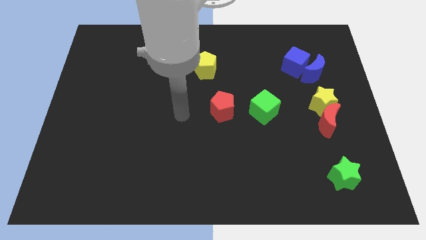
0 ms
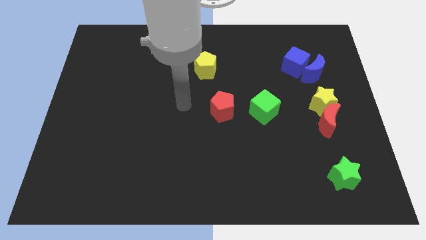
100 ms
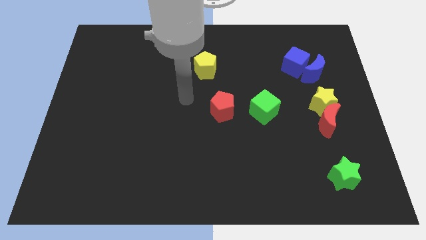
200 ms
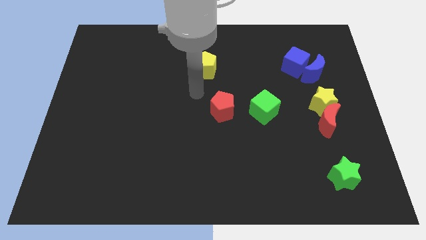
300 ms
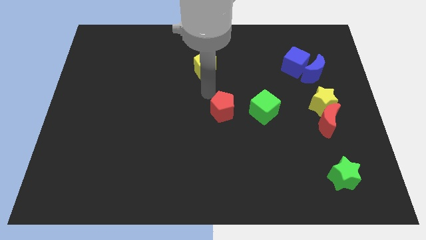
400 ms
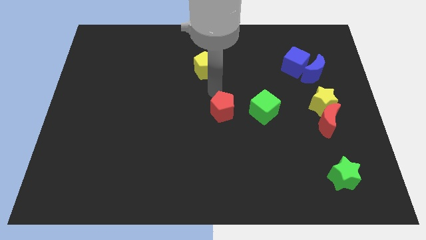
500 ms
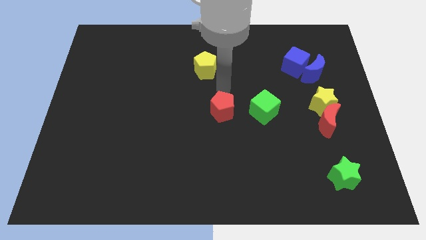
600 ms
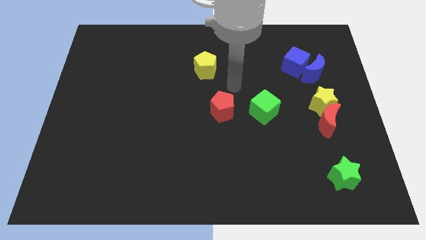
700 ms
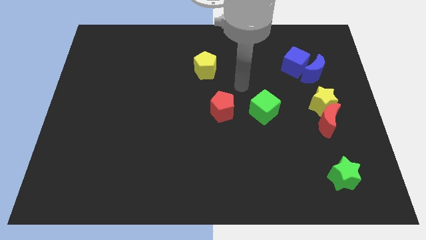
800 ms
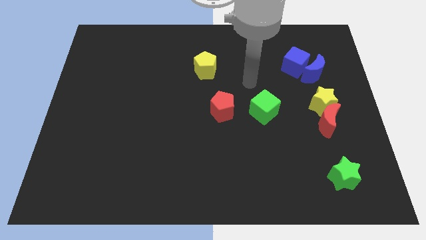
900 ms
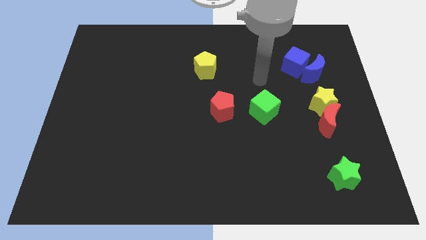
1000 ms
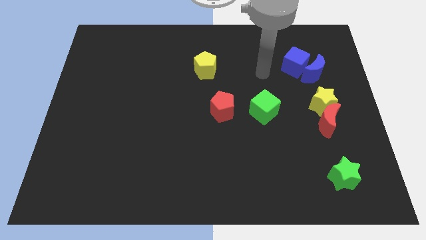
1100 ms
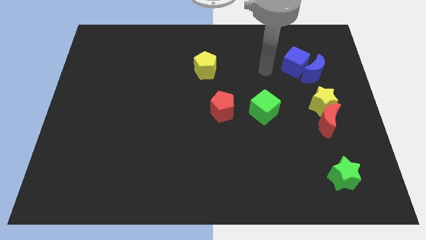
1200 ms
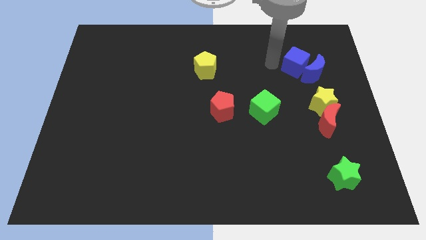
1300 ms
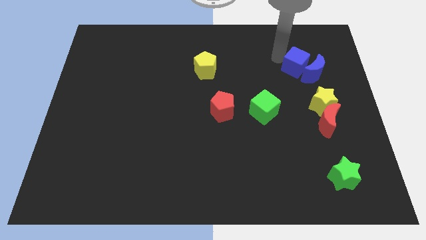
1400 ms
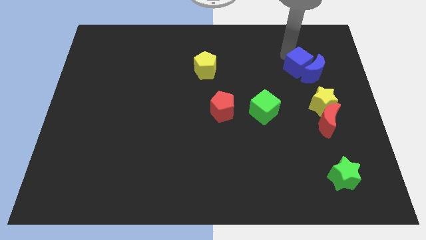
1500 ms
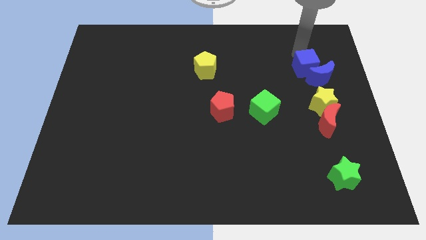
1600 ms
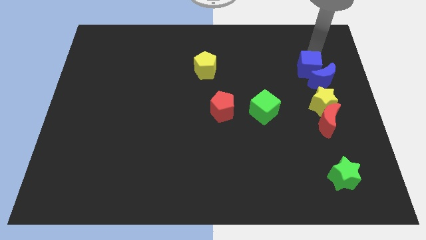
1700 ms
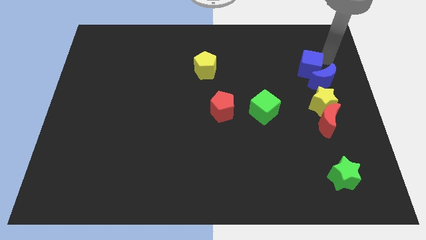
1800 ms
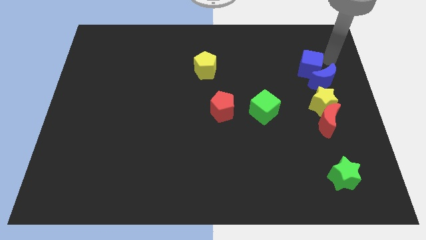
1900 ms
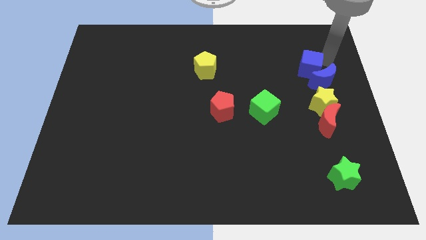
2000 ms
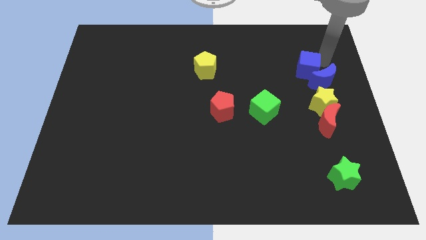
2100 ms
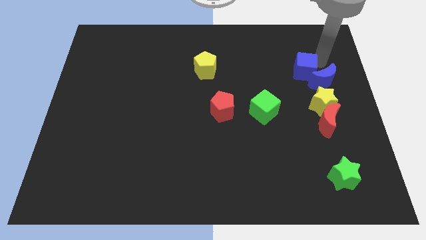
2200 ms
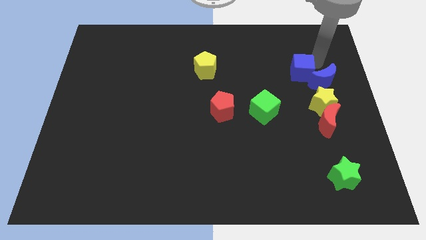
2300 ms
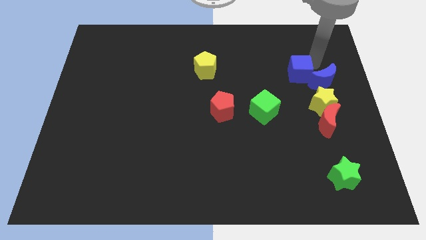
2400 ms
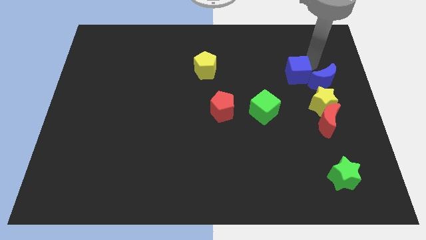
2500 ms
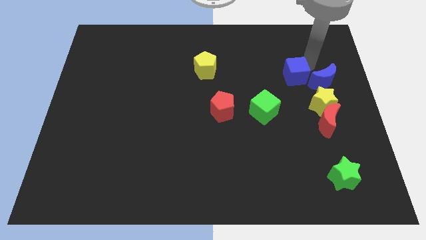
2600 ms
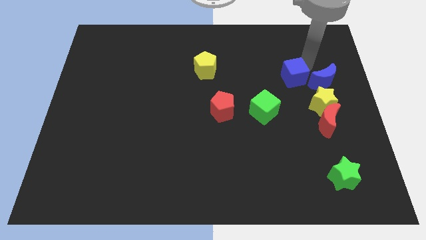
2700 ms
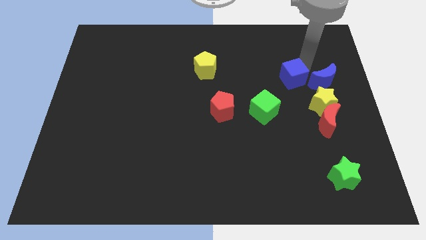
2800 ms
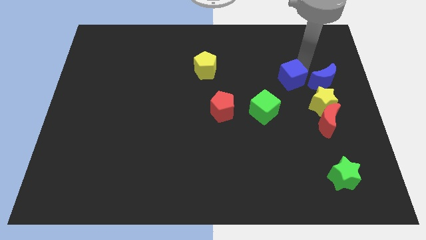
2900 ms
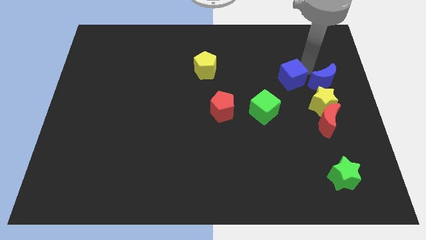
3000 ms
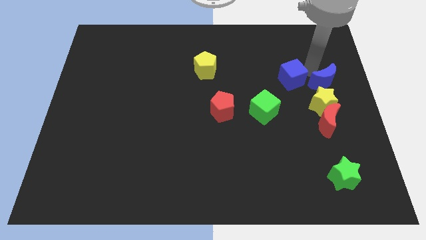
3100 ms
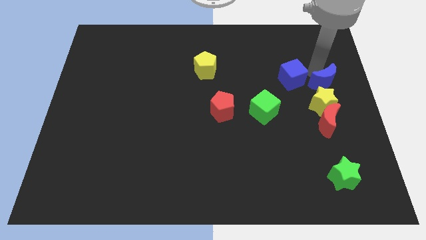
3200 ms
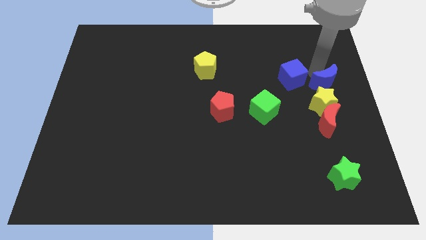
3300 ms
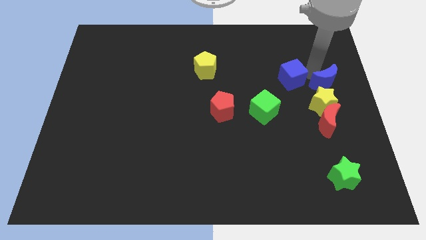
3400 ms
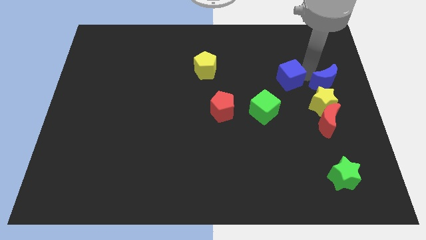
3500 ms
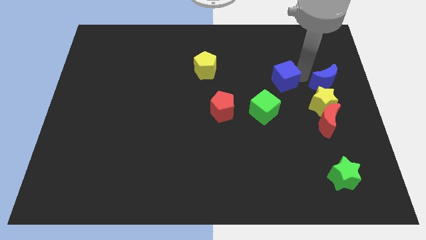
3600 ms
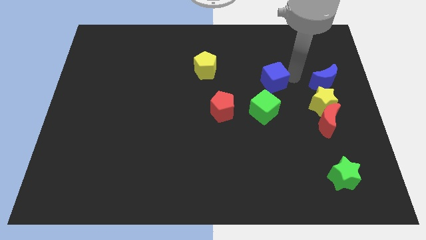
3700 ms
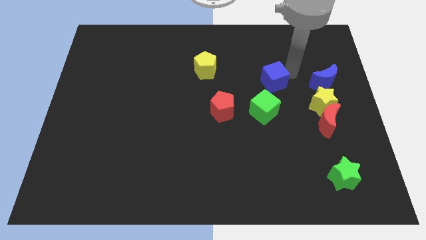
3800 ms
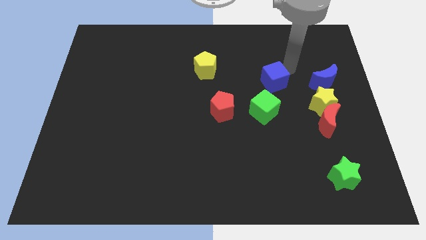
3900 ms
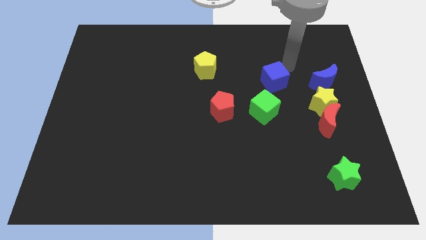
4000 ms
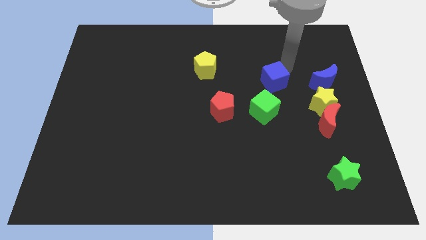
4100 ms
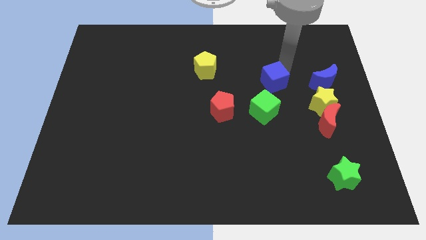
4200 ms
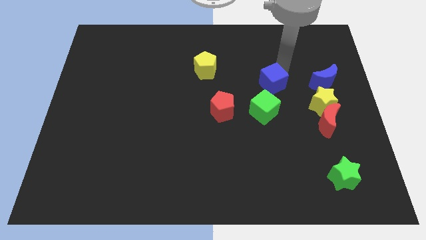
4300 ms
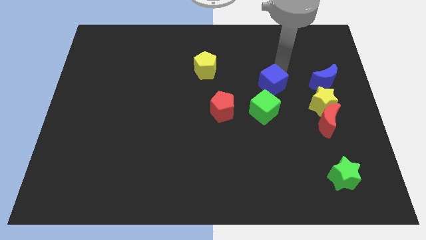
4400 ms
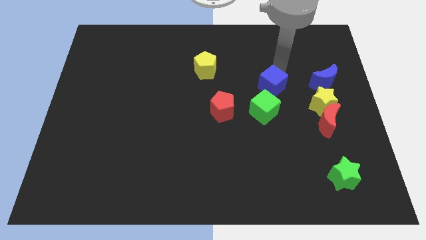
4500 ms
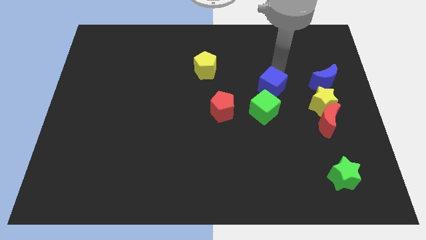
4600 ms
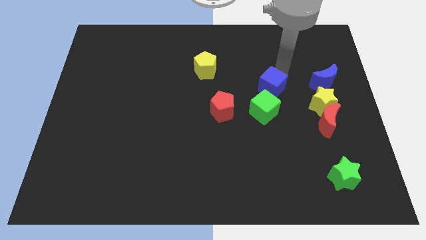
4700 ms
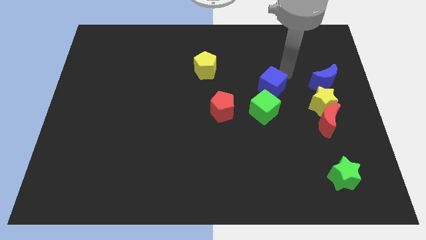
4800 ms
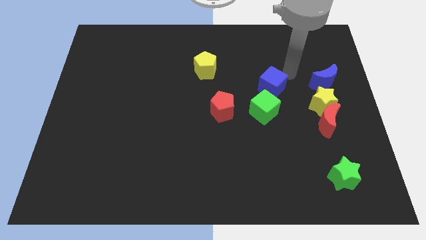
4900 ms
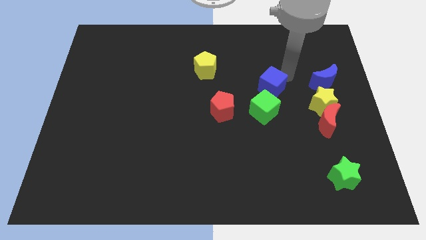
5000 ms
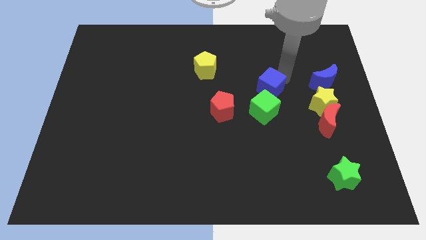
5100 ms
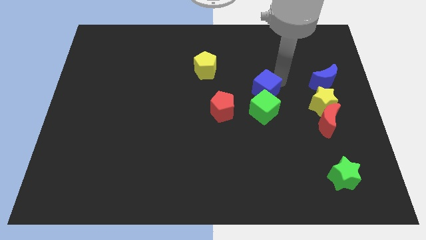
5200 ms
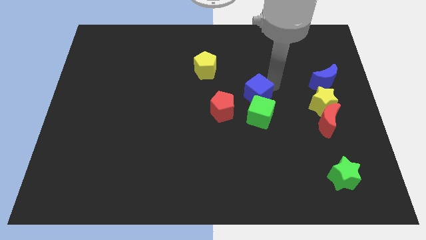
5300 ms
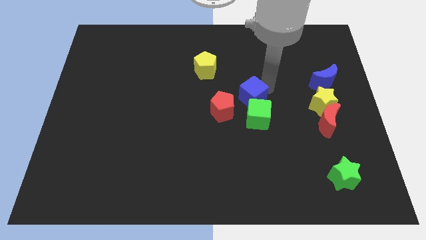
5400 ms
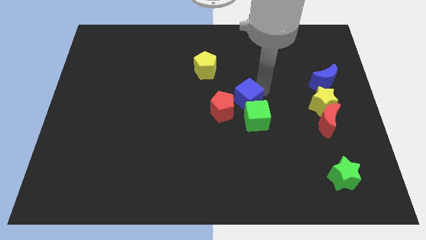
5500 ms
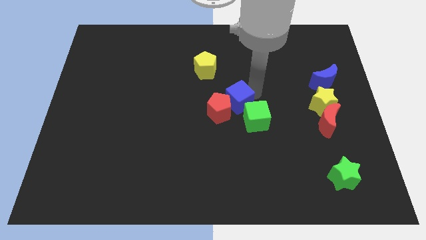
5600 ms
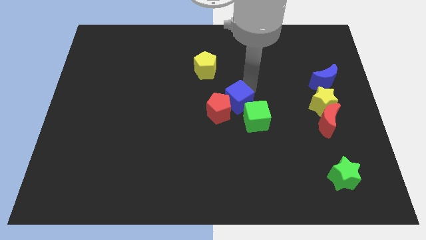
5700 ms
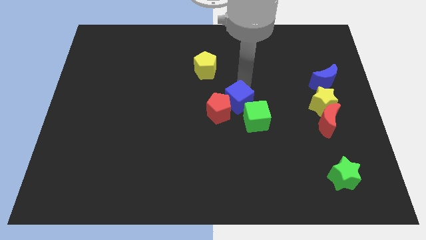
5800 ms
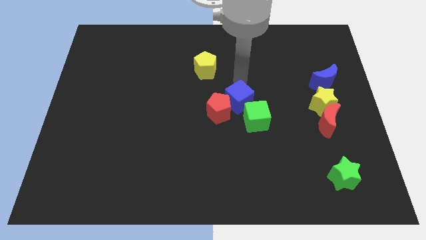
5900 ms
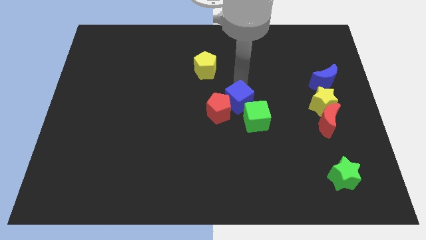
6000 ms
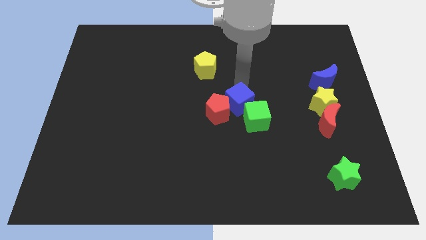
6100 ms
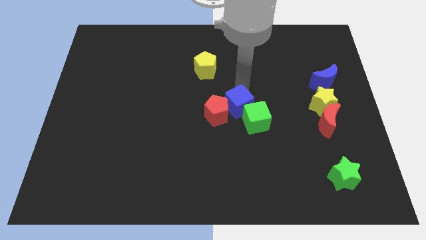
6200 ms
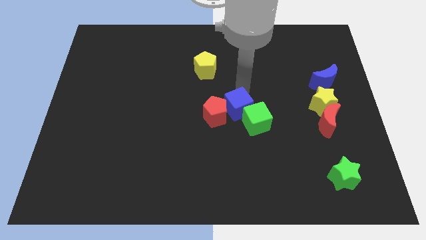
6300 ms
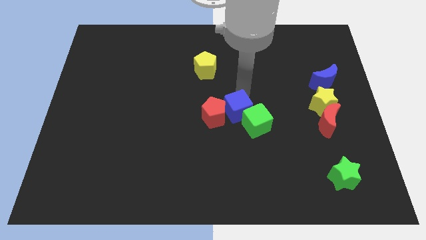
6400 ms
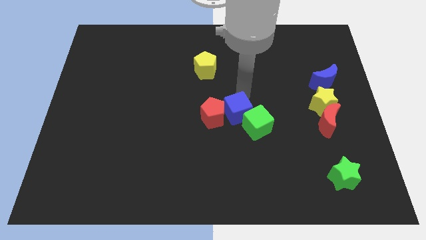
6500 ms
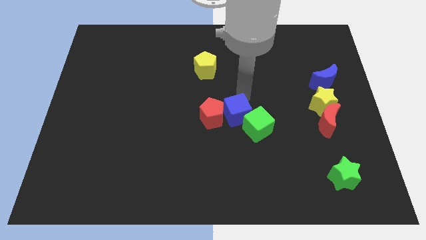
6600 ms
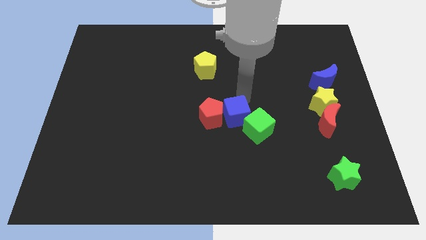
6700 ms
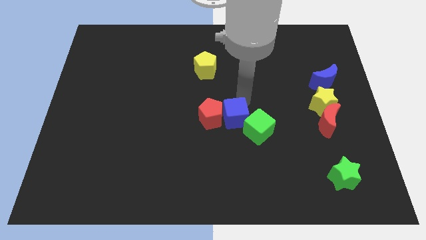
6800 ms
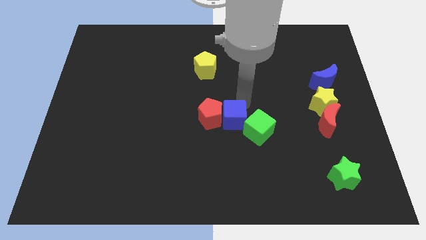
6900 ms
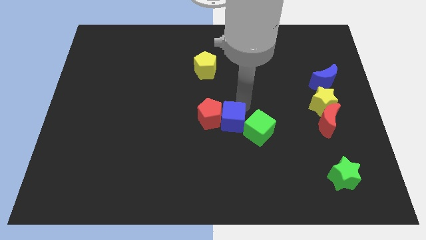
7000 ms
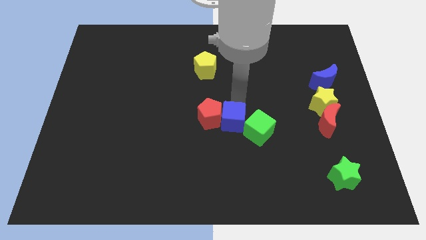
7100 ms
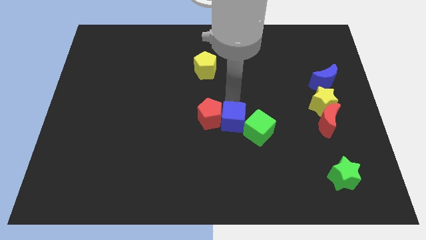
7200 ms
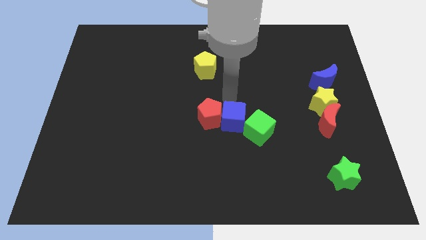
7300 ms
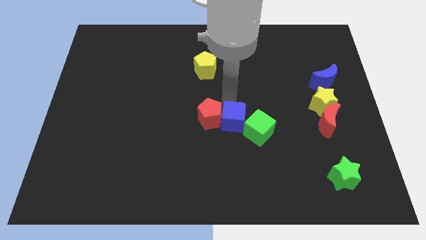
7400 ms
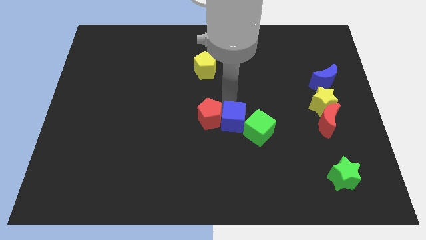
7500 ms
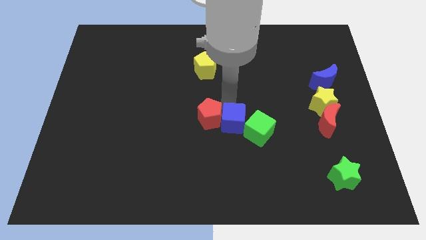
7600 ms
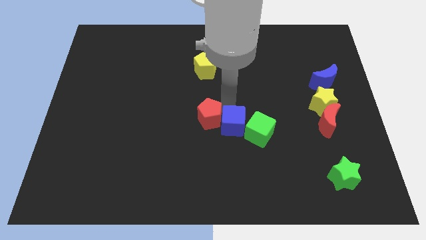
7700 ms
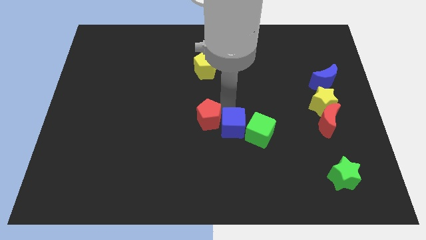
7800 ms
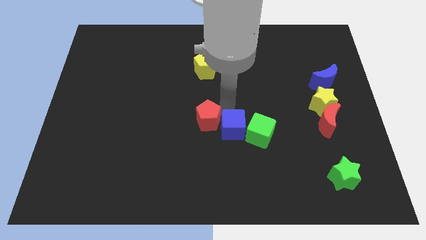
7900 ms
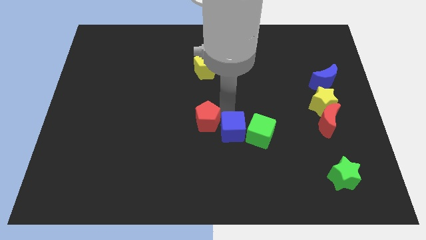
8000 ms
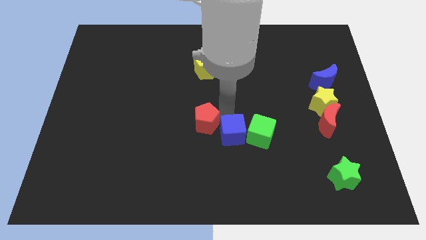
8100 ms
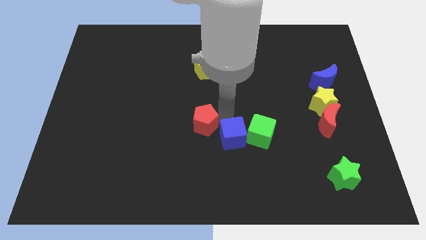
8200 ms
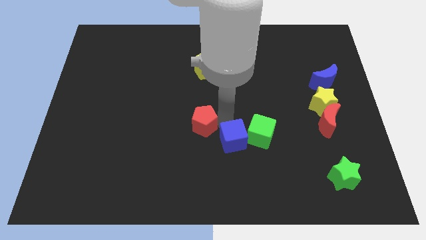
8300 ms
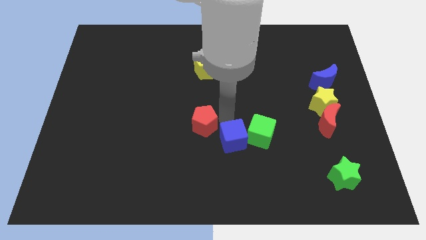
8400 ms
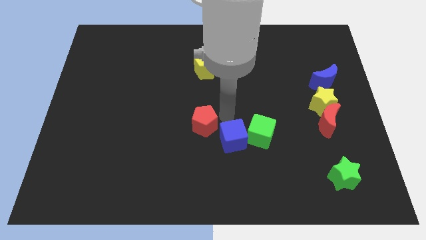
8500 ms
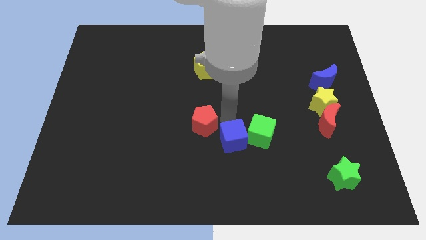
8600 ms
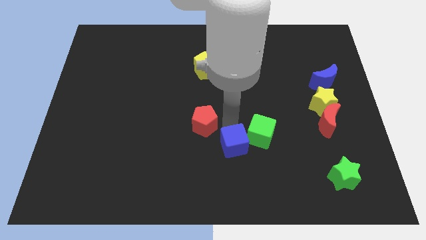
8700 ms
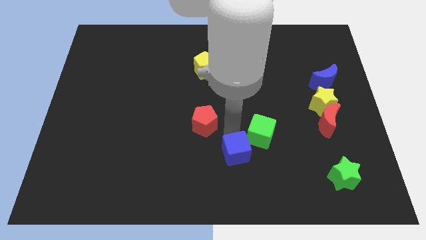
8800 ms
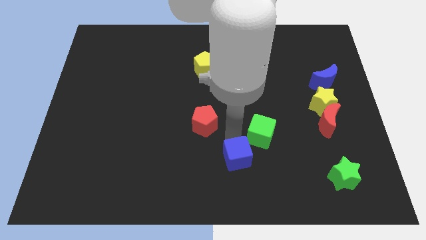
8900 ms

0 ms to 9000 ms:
put the blue cube to the bottom
